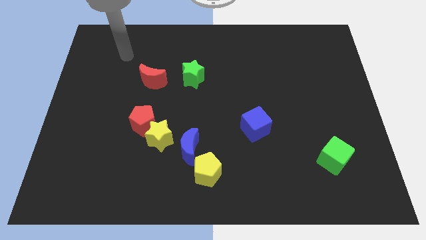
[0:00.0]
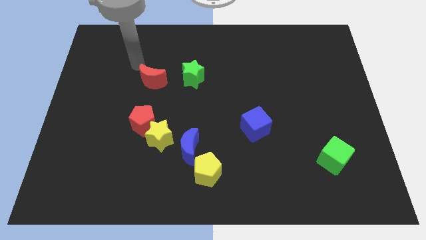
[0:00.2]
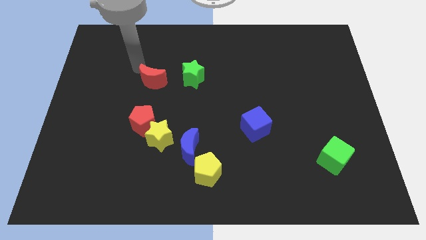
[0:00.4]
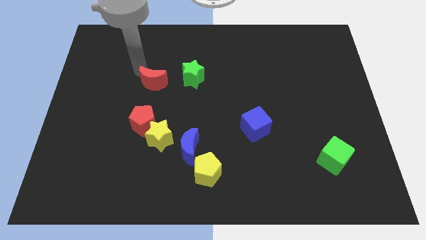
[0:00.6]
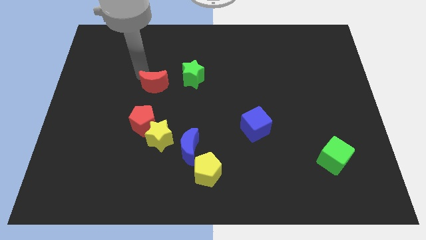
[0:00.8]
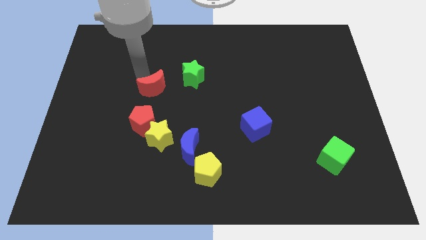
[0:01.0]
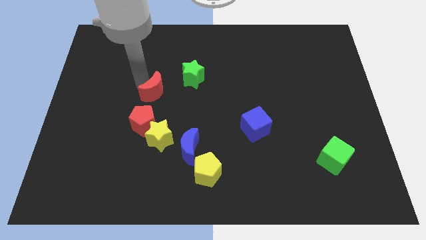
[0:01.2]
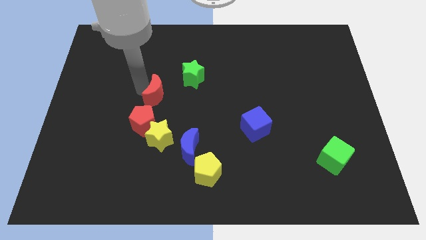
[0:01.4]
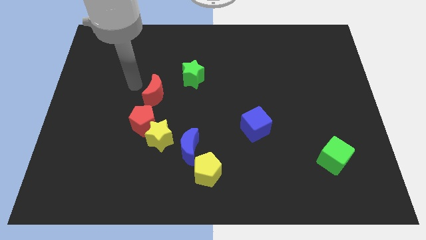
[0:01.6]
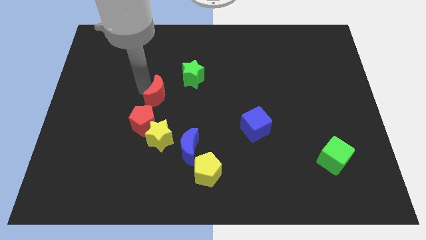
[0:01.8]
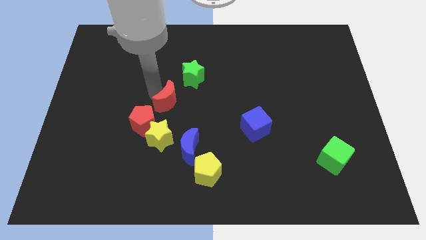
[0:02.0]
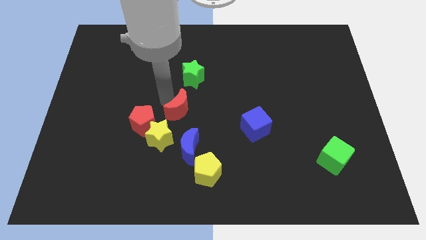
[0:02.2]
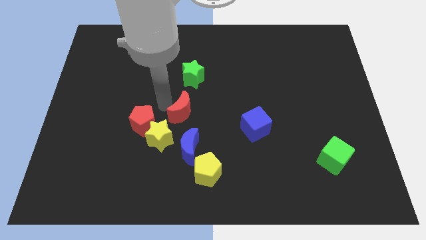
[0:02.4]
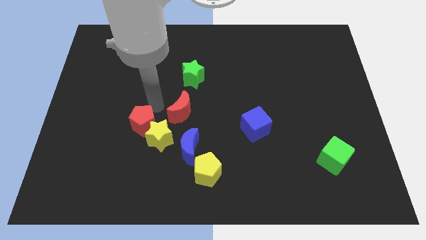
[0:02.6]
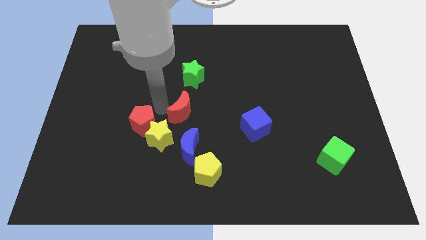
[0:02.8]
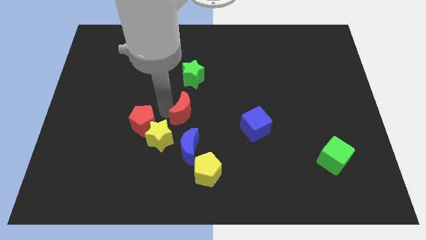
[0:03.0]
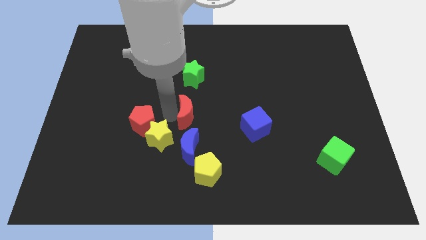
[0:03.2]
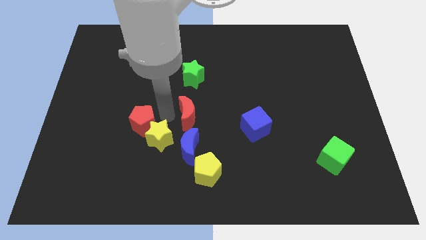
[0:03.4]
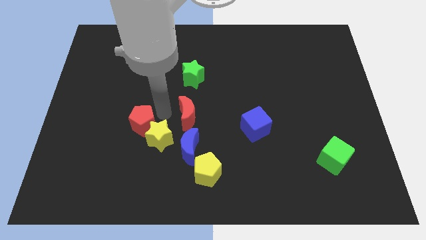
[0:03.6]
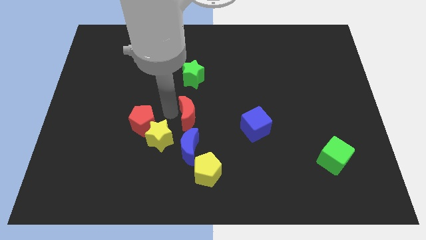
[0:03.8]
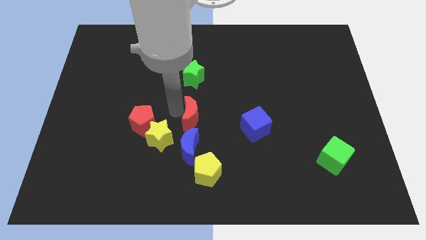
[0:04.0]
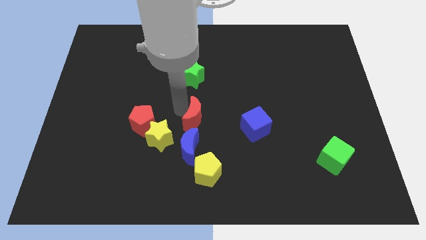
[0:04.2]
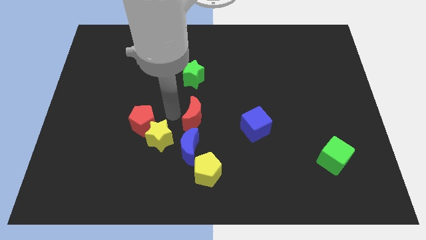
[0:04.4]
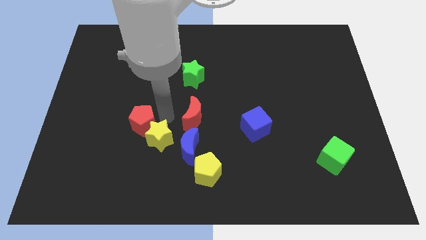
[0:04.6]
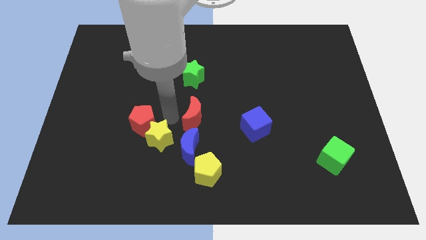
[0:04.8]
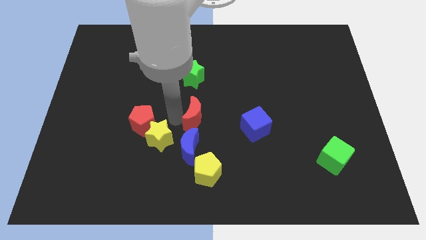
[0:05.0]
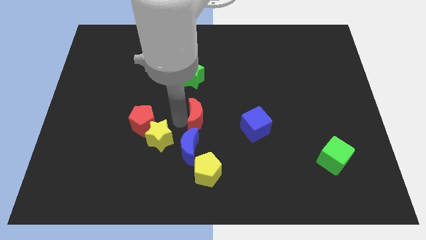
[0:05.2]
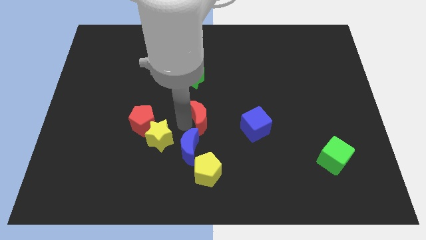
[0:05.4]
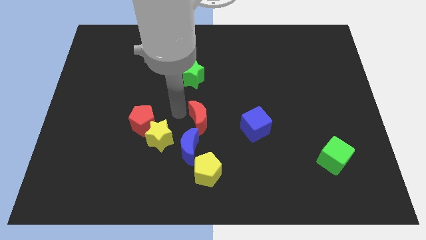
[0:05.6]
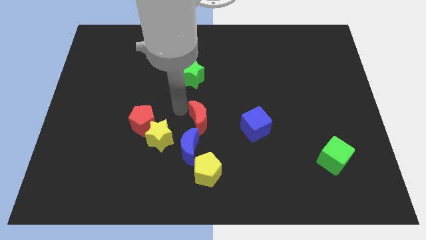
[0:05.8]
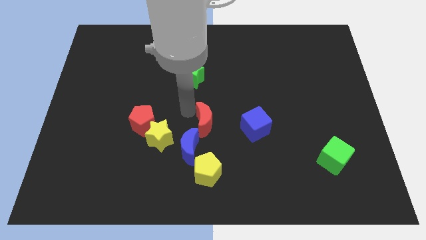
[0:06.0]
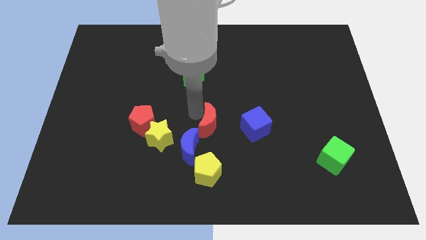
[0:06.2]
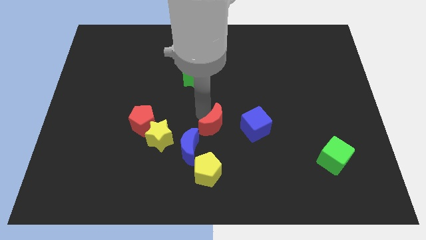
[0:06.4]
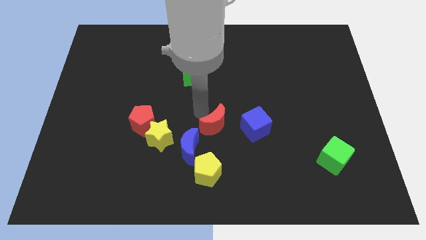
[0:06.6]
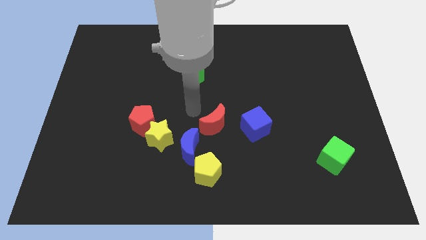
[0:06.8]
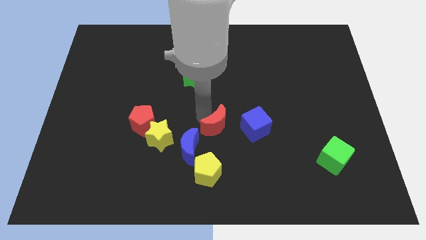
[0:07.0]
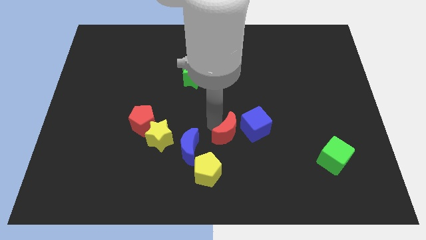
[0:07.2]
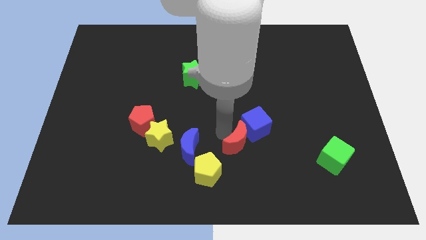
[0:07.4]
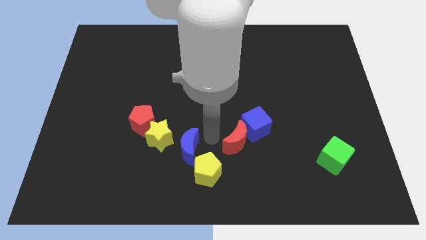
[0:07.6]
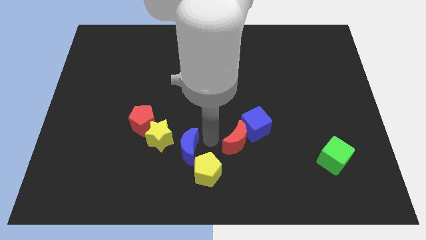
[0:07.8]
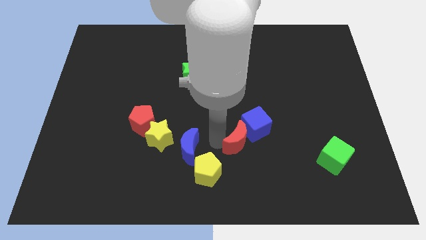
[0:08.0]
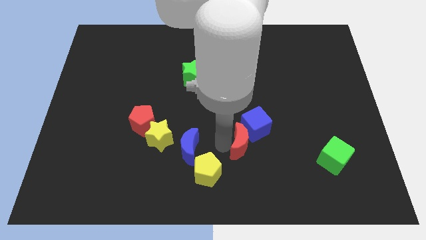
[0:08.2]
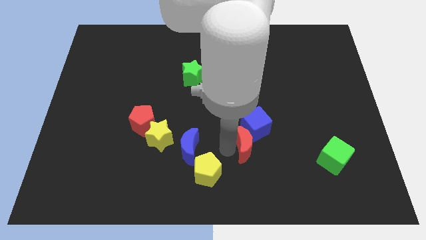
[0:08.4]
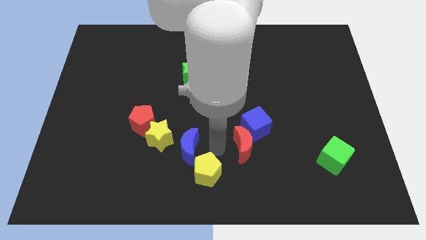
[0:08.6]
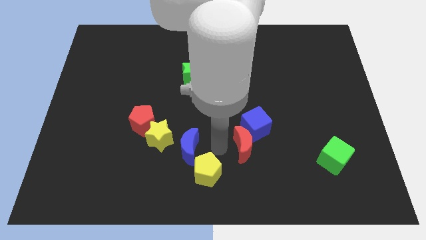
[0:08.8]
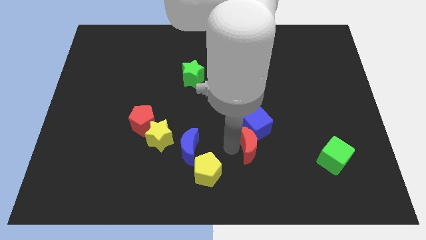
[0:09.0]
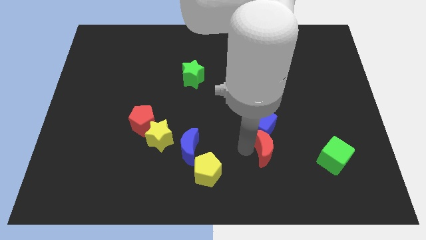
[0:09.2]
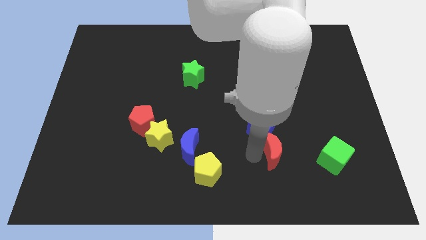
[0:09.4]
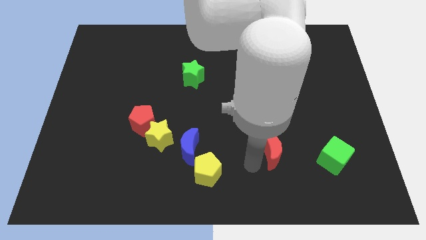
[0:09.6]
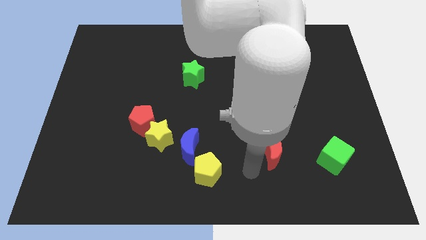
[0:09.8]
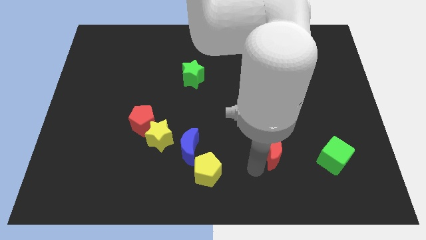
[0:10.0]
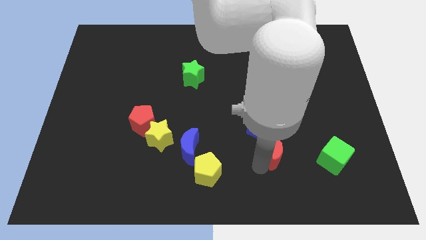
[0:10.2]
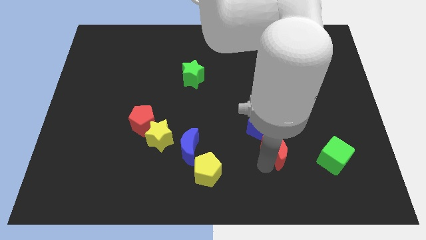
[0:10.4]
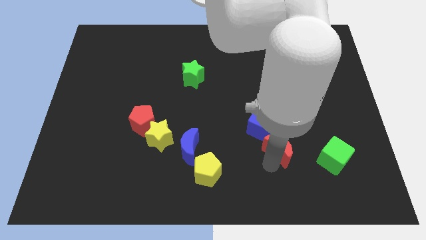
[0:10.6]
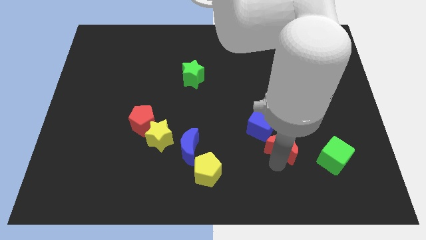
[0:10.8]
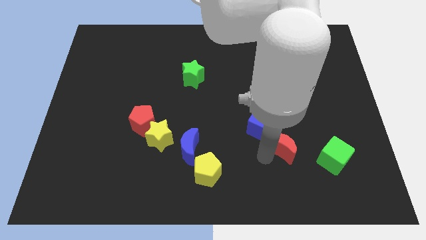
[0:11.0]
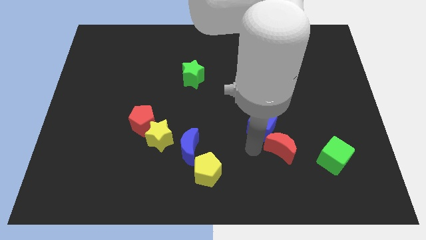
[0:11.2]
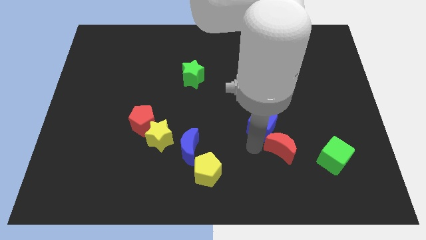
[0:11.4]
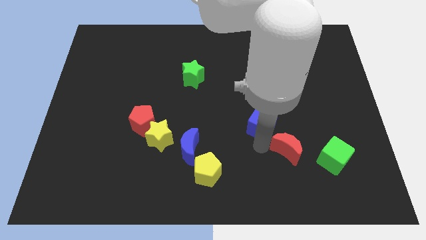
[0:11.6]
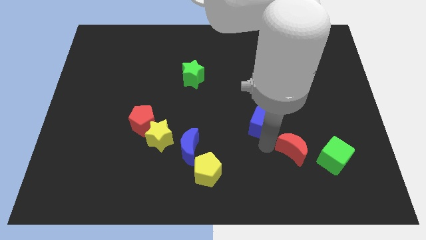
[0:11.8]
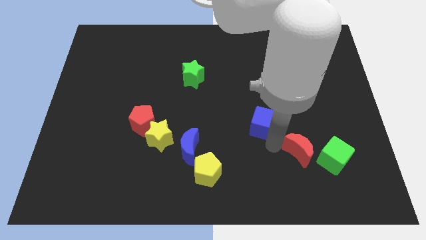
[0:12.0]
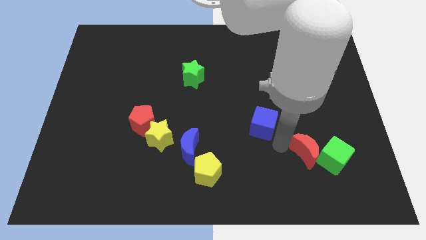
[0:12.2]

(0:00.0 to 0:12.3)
move the red moon towards the green cube

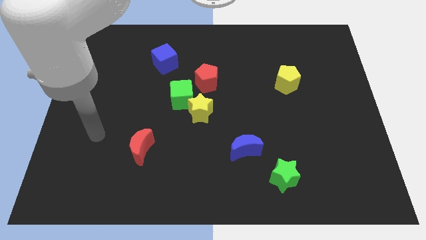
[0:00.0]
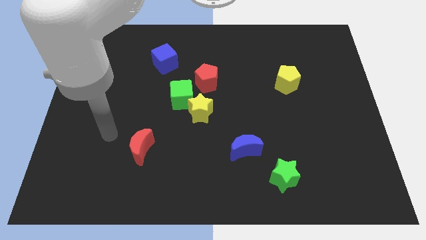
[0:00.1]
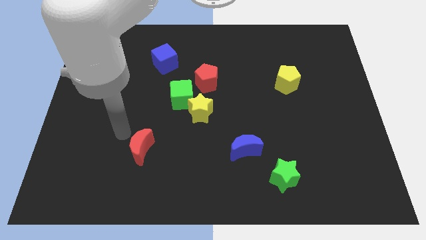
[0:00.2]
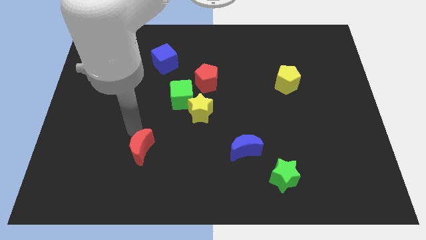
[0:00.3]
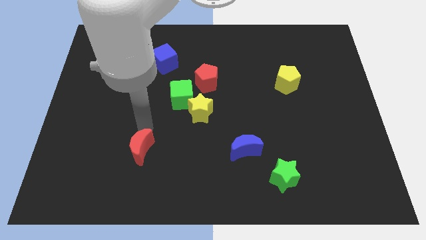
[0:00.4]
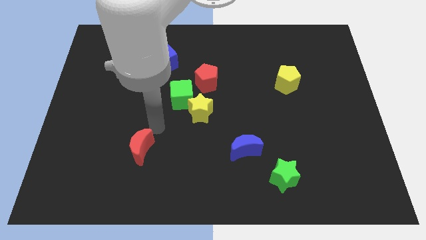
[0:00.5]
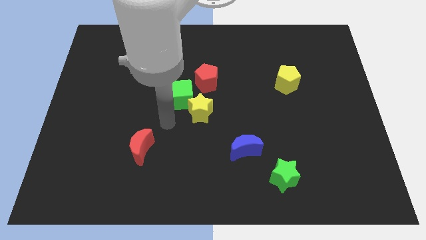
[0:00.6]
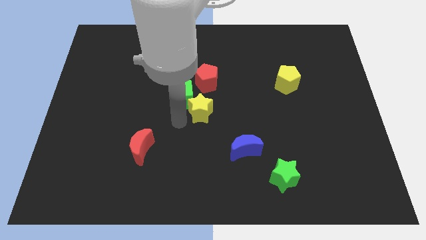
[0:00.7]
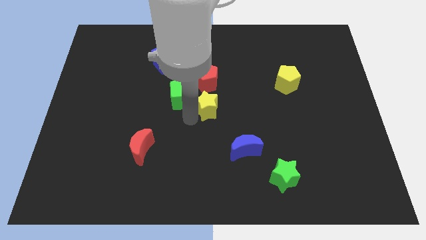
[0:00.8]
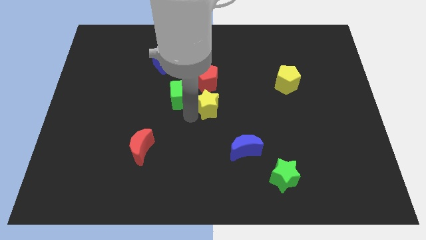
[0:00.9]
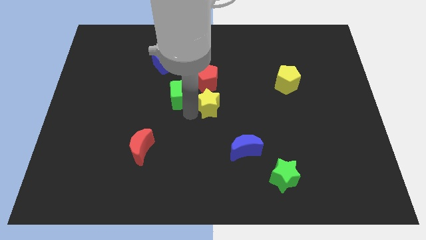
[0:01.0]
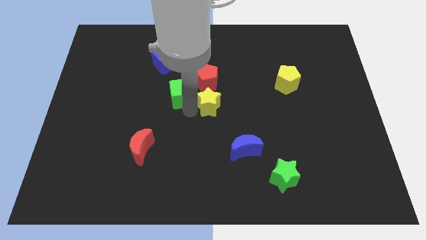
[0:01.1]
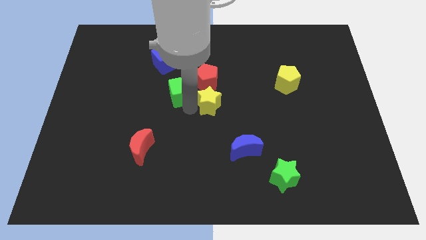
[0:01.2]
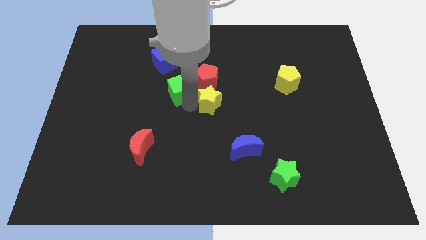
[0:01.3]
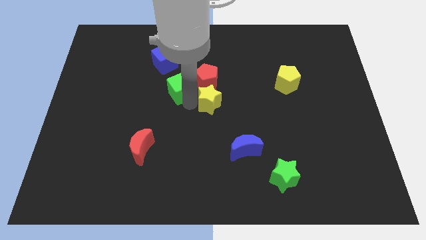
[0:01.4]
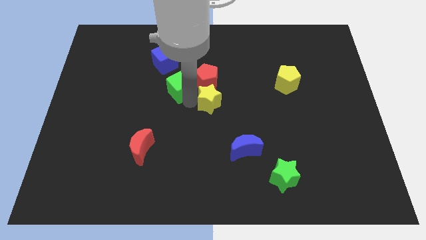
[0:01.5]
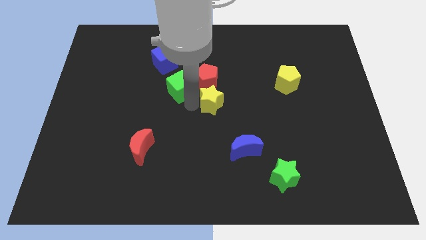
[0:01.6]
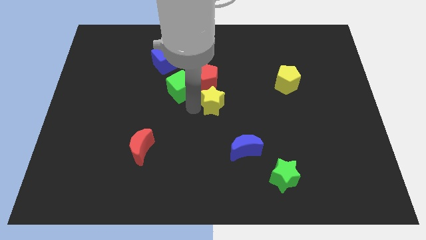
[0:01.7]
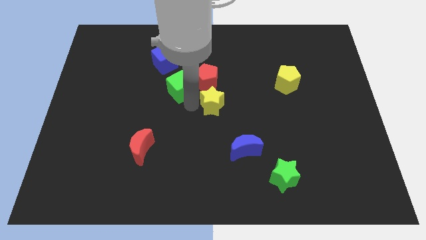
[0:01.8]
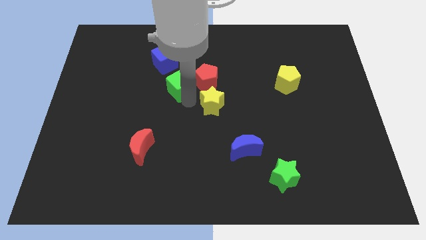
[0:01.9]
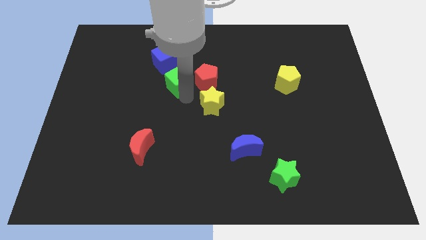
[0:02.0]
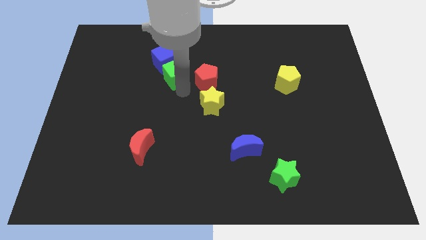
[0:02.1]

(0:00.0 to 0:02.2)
push the green cube next to the blue cube
